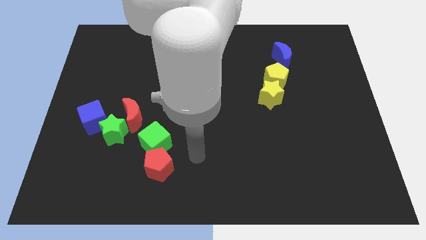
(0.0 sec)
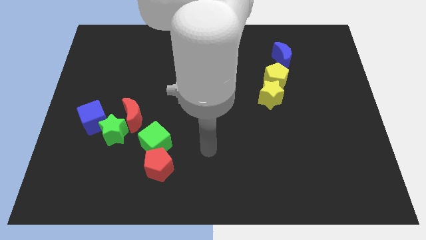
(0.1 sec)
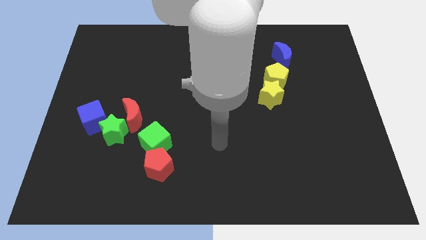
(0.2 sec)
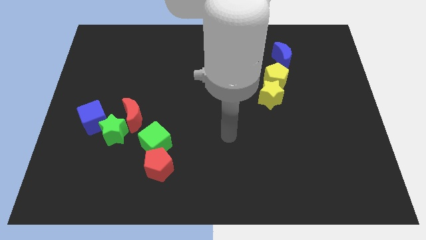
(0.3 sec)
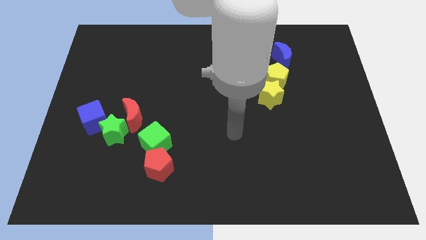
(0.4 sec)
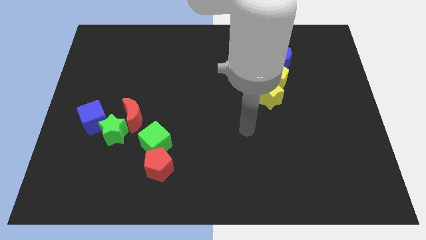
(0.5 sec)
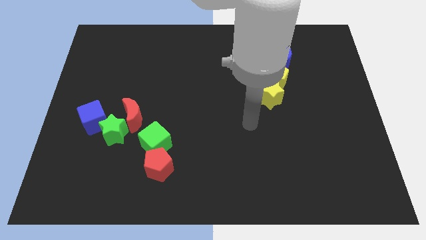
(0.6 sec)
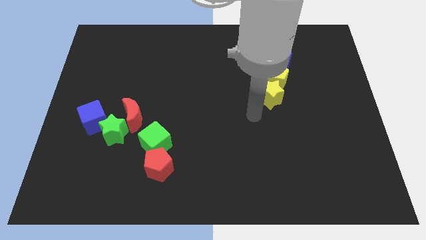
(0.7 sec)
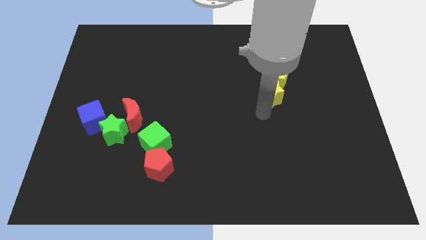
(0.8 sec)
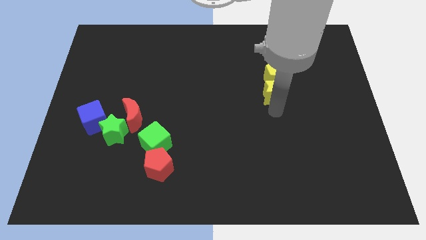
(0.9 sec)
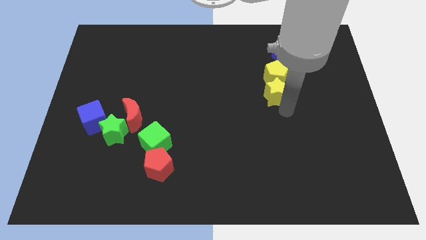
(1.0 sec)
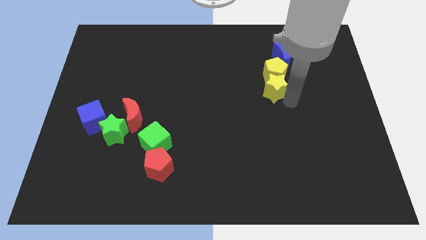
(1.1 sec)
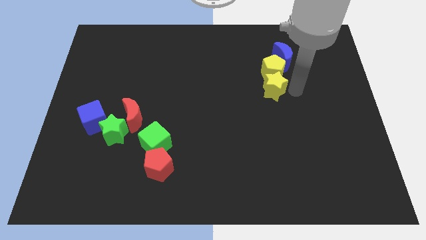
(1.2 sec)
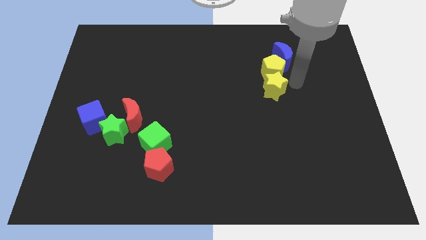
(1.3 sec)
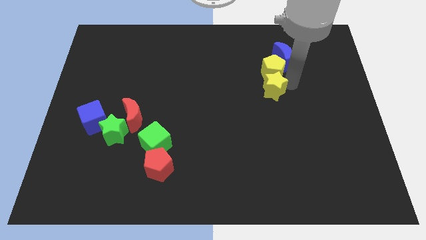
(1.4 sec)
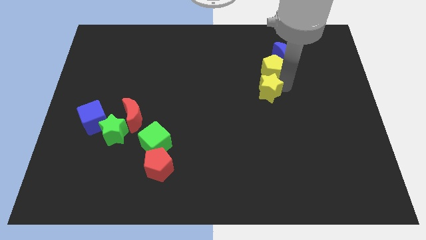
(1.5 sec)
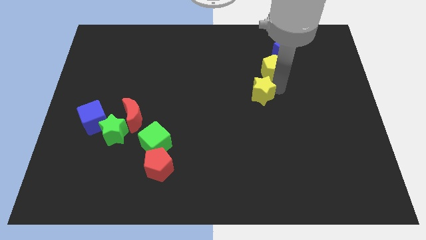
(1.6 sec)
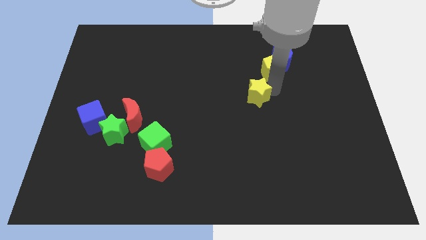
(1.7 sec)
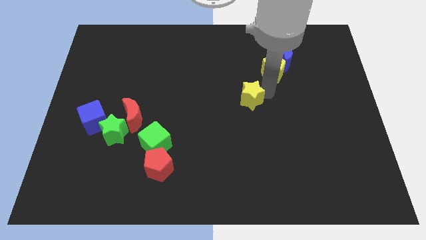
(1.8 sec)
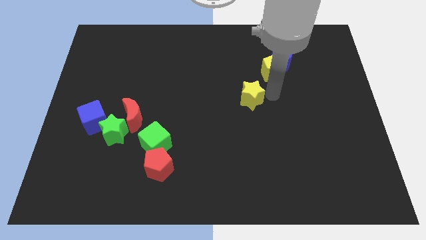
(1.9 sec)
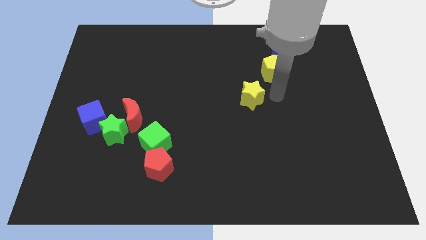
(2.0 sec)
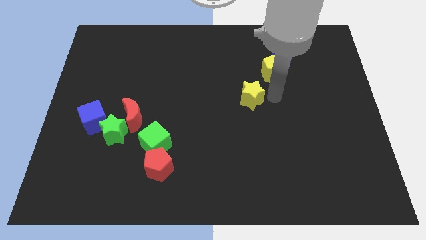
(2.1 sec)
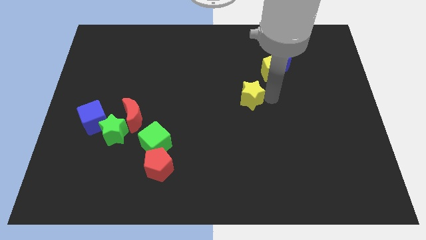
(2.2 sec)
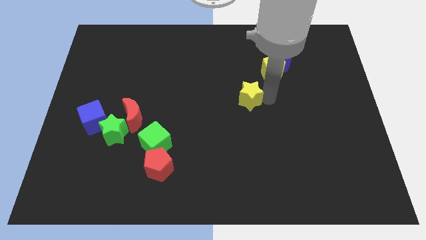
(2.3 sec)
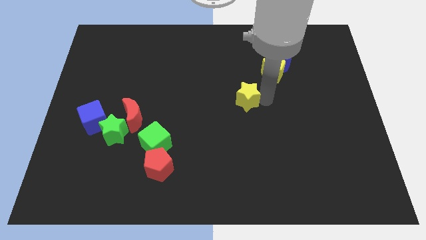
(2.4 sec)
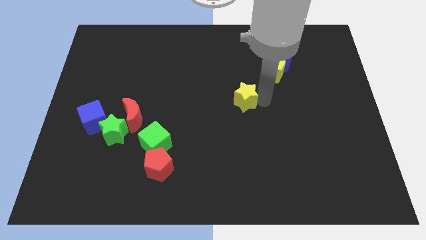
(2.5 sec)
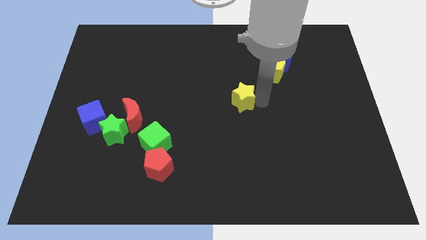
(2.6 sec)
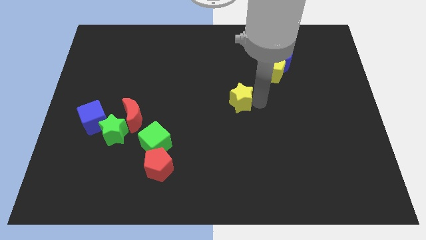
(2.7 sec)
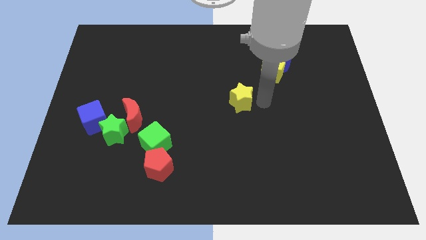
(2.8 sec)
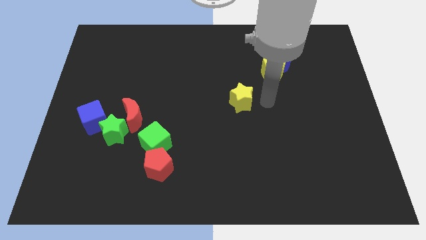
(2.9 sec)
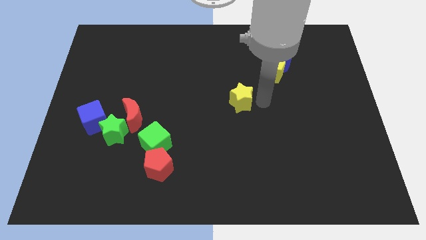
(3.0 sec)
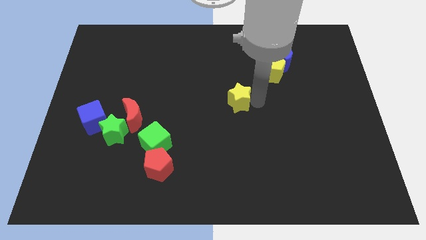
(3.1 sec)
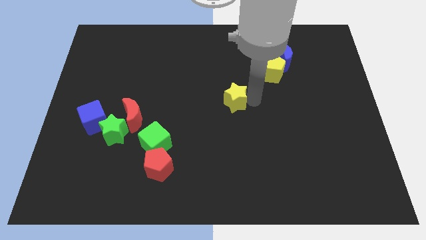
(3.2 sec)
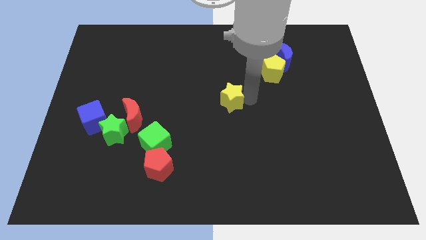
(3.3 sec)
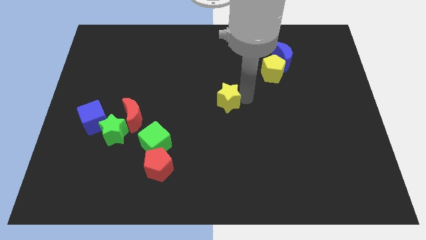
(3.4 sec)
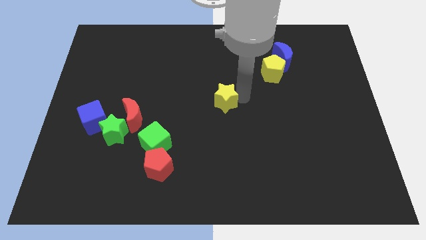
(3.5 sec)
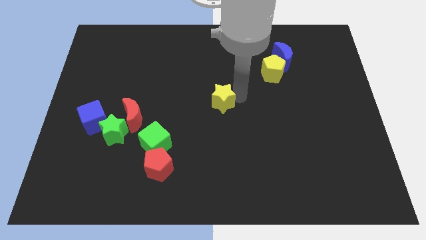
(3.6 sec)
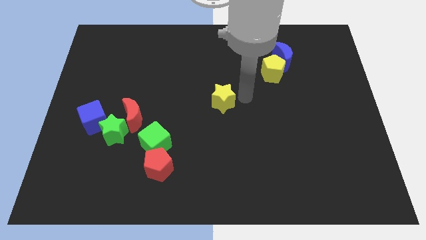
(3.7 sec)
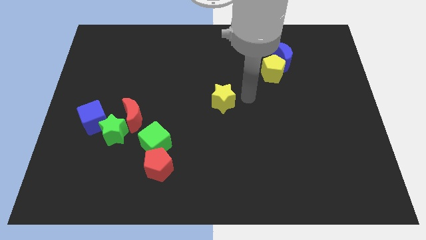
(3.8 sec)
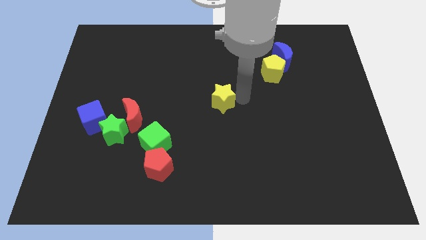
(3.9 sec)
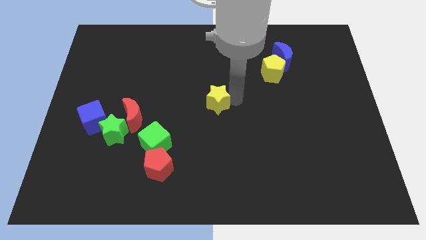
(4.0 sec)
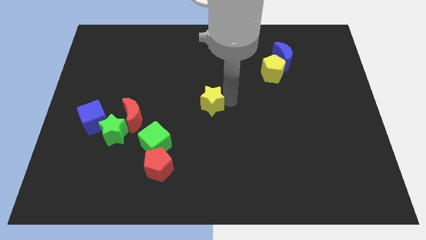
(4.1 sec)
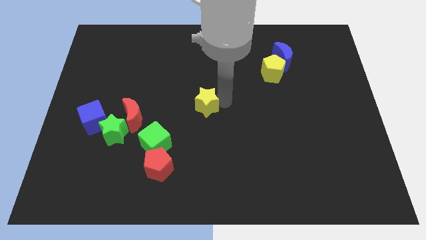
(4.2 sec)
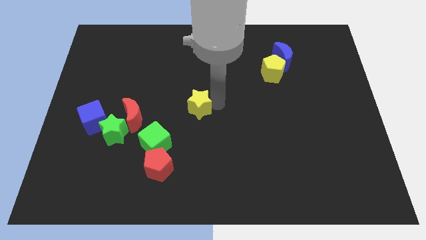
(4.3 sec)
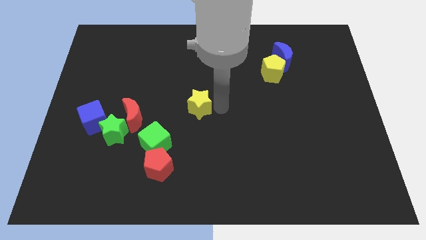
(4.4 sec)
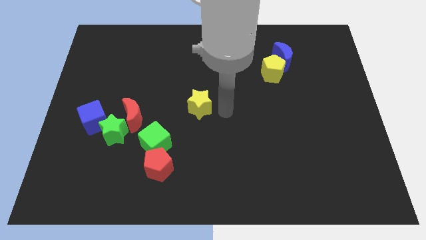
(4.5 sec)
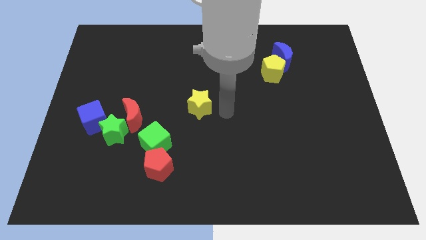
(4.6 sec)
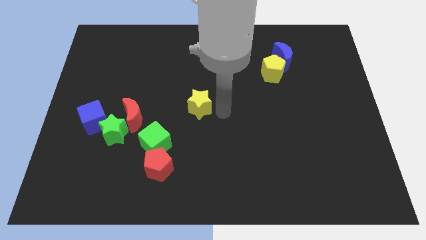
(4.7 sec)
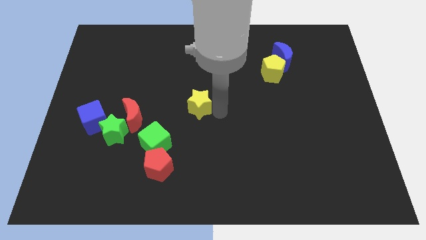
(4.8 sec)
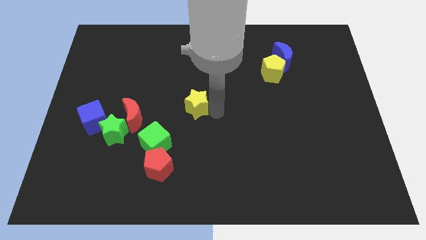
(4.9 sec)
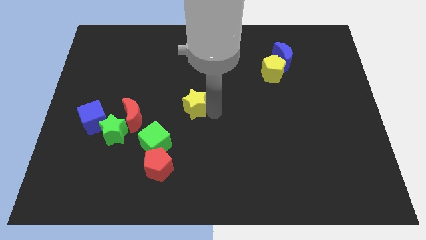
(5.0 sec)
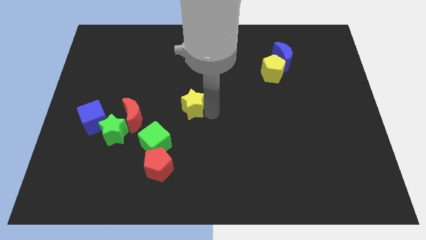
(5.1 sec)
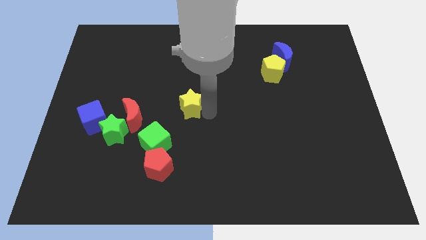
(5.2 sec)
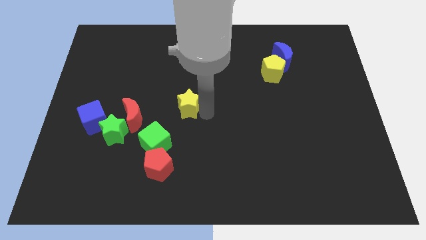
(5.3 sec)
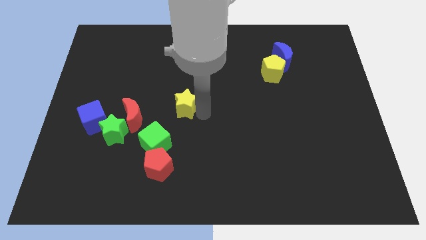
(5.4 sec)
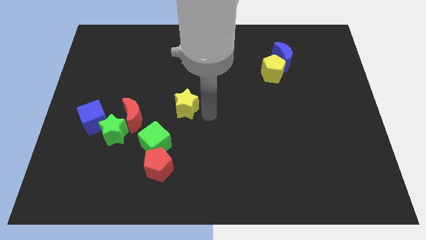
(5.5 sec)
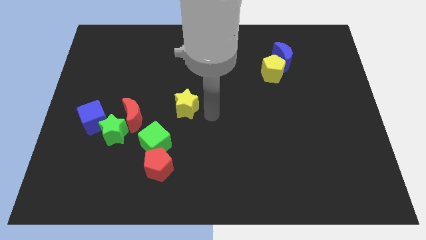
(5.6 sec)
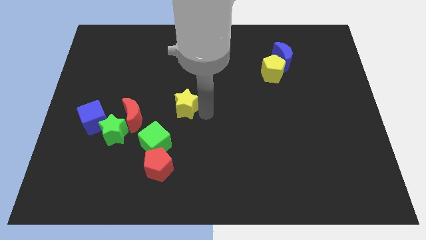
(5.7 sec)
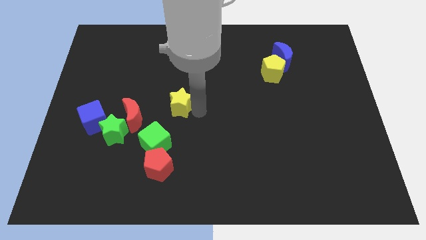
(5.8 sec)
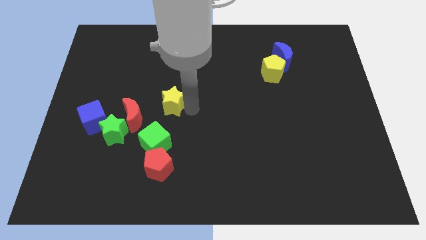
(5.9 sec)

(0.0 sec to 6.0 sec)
move the yellow star diagonally up and to the right of the red moon
